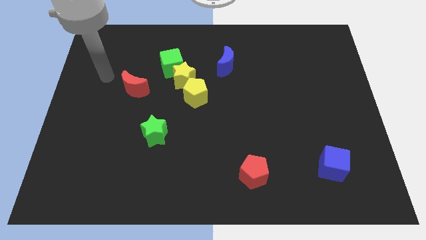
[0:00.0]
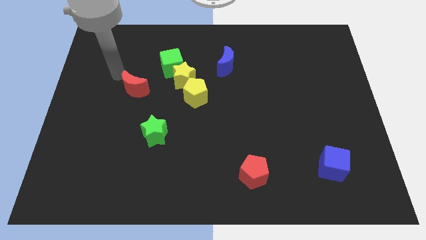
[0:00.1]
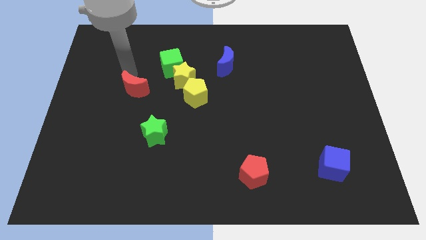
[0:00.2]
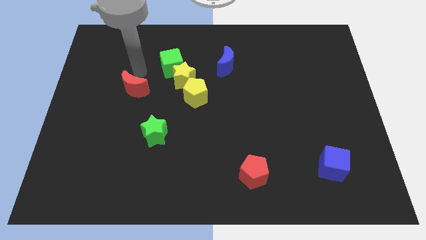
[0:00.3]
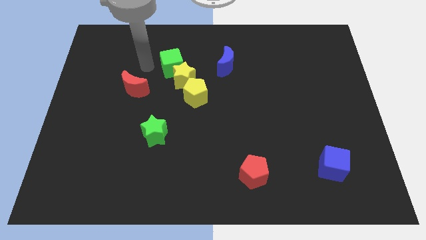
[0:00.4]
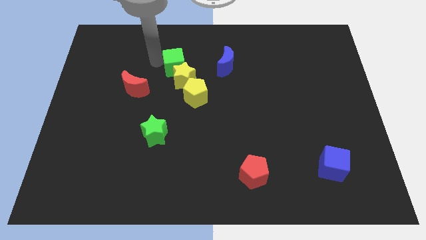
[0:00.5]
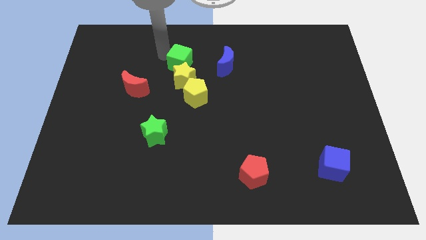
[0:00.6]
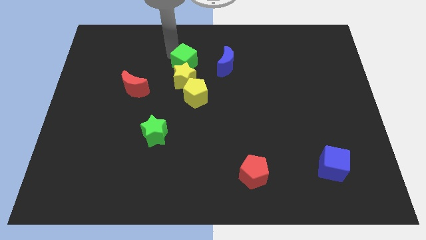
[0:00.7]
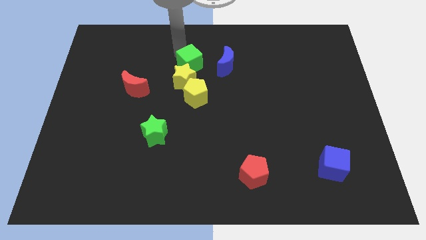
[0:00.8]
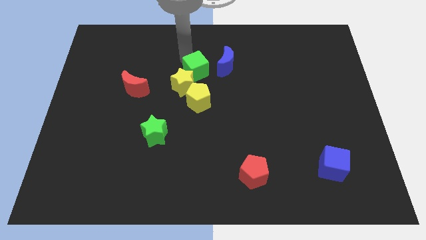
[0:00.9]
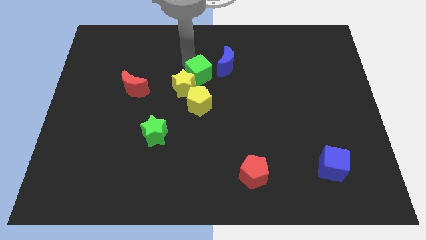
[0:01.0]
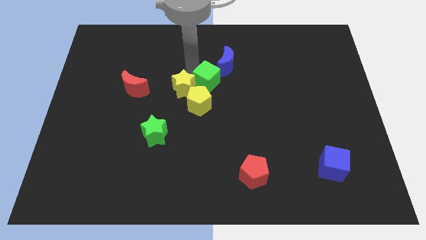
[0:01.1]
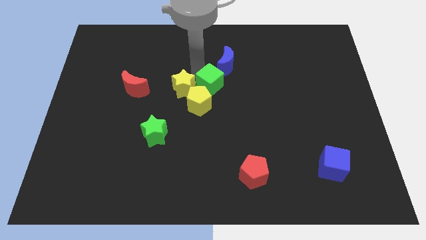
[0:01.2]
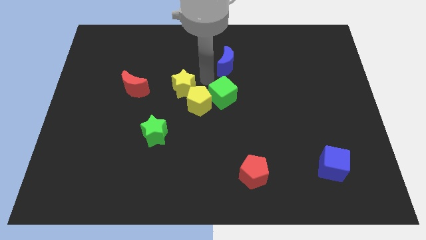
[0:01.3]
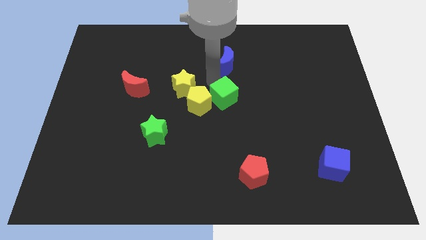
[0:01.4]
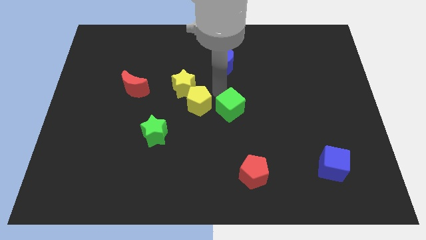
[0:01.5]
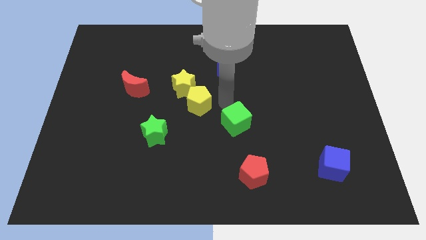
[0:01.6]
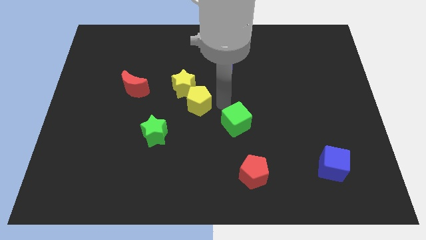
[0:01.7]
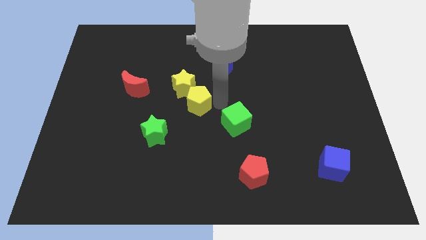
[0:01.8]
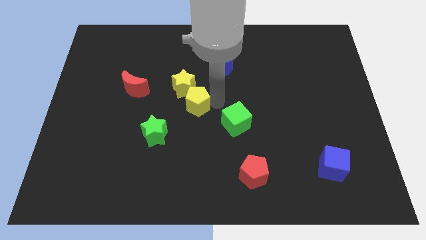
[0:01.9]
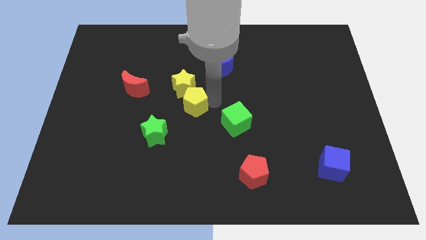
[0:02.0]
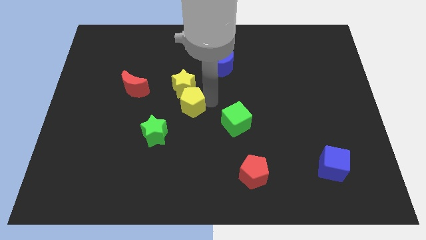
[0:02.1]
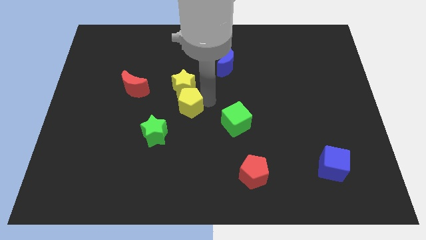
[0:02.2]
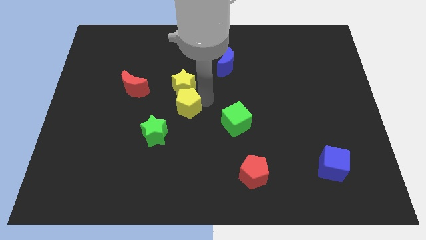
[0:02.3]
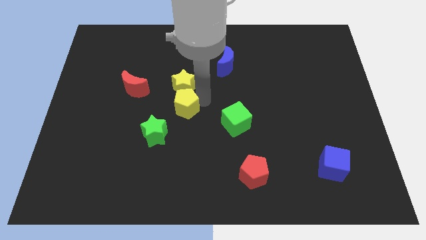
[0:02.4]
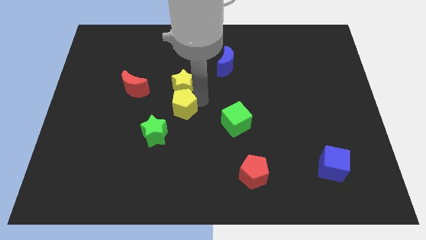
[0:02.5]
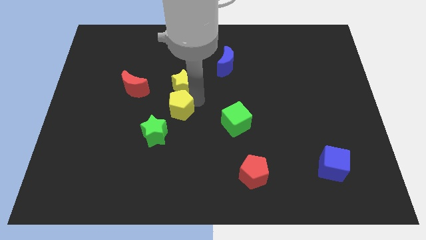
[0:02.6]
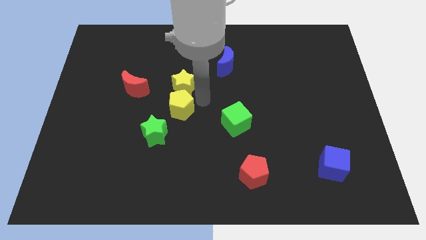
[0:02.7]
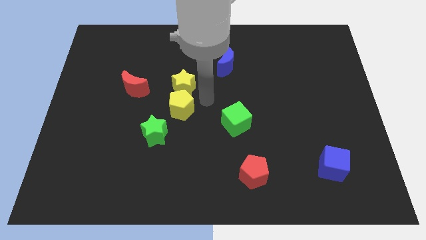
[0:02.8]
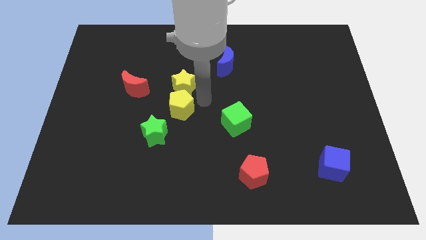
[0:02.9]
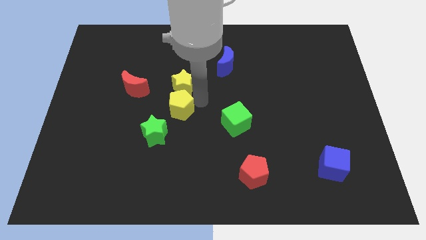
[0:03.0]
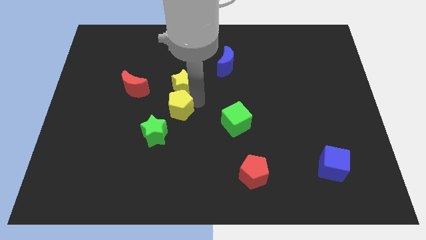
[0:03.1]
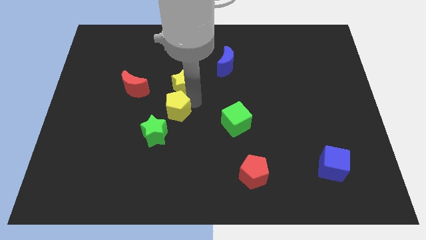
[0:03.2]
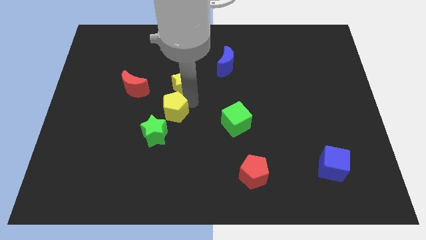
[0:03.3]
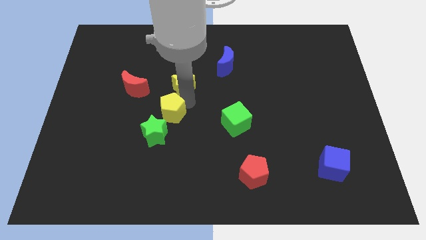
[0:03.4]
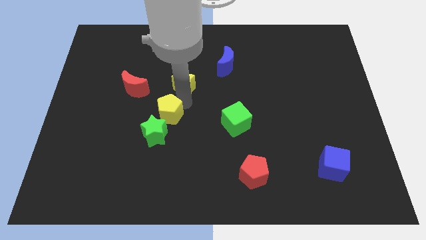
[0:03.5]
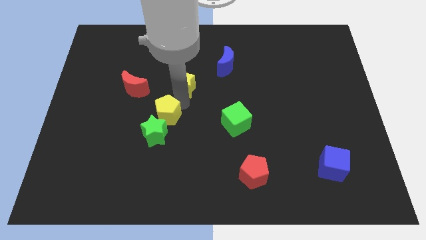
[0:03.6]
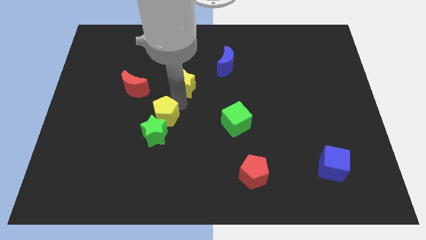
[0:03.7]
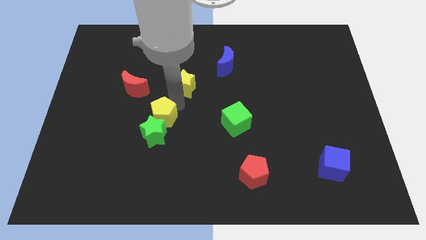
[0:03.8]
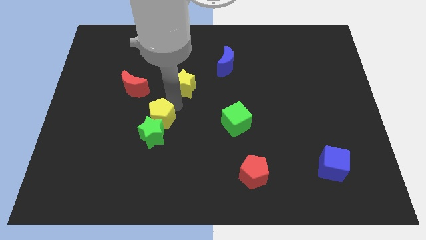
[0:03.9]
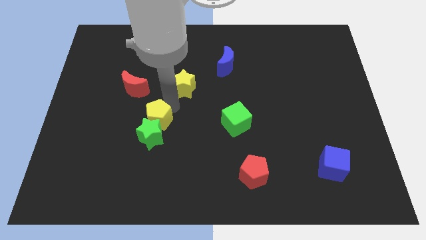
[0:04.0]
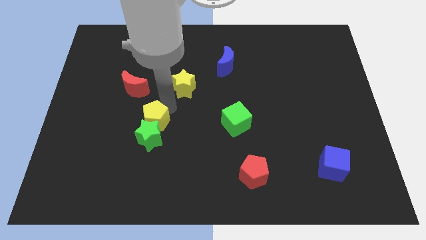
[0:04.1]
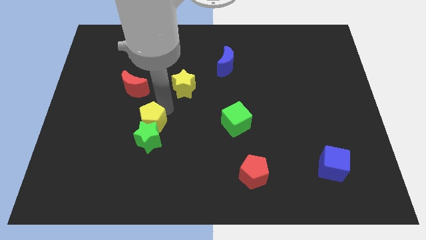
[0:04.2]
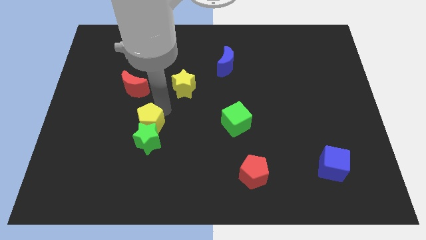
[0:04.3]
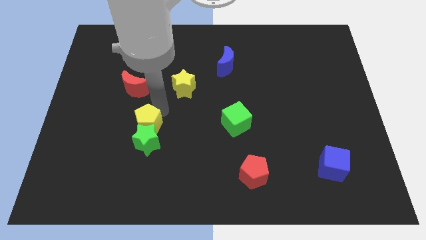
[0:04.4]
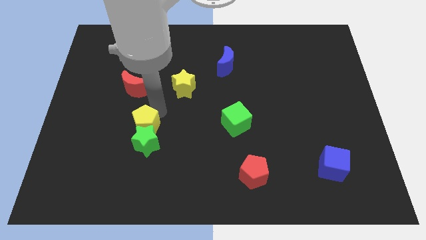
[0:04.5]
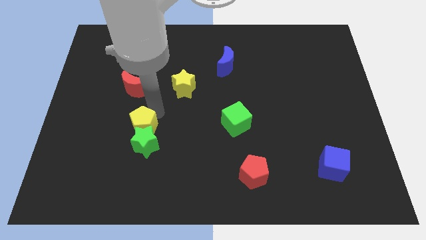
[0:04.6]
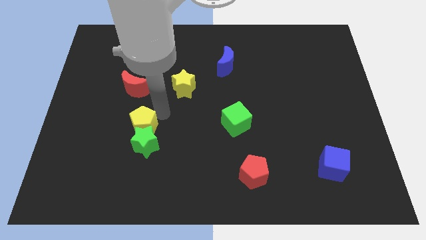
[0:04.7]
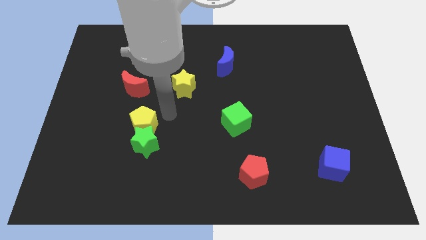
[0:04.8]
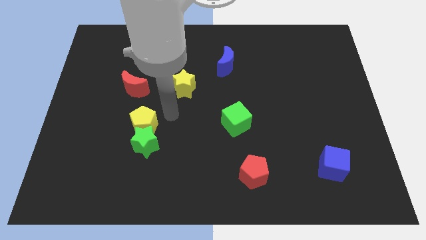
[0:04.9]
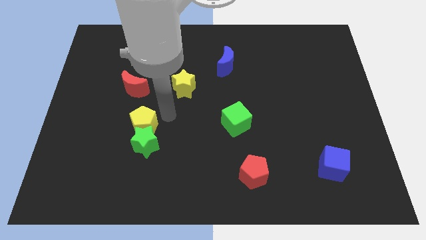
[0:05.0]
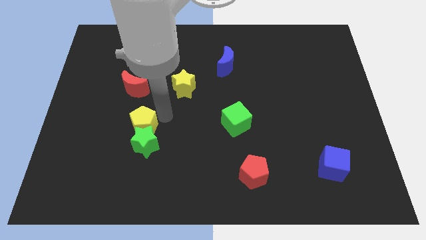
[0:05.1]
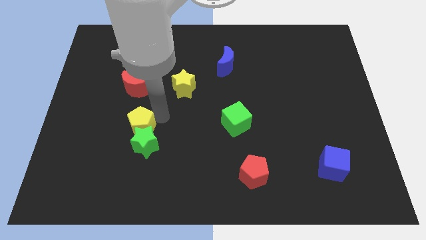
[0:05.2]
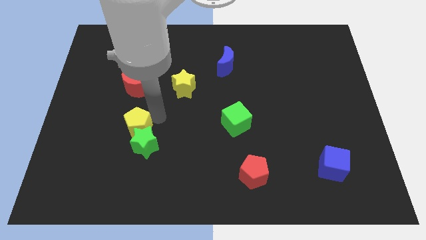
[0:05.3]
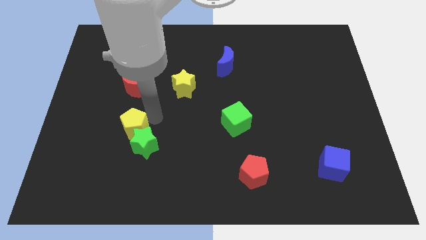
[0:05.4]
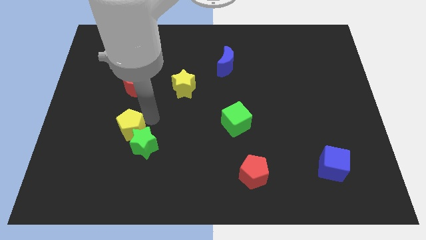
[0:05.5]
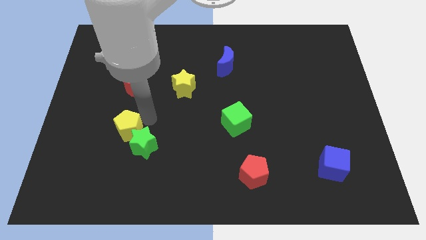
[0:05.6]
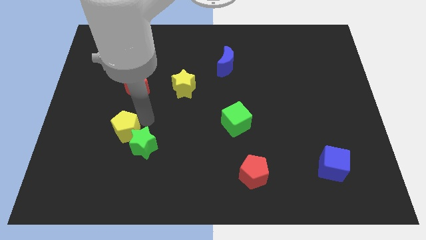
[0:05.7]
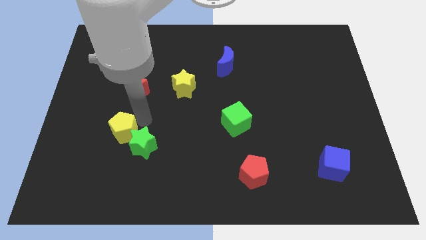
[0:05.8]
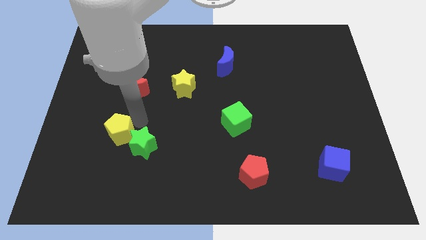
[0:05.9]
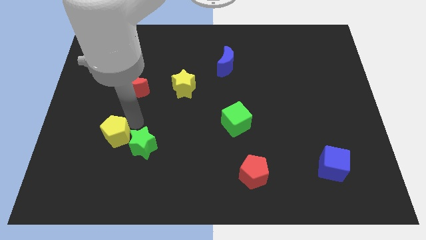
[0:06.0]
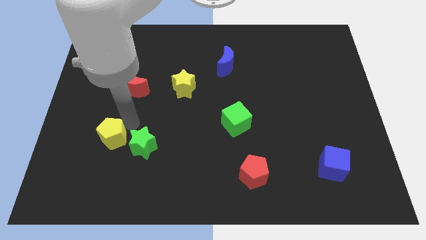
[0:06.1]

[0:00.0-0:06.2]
move the yellow pentagon down and then left

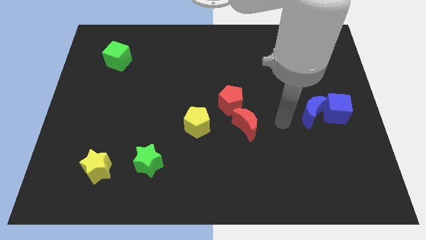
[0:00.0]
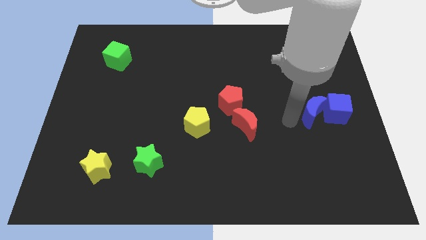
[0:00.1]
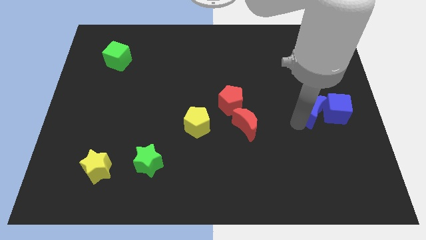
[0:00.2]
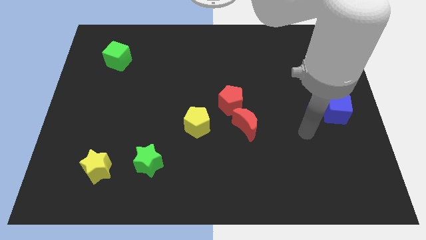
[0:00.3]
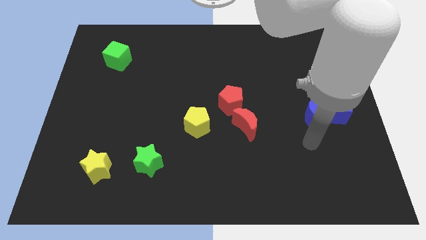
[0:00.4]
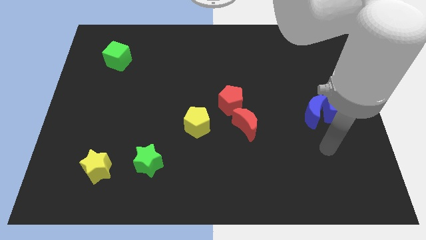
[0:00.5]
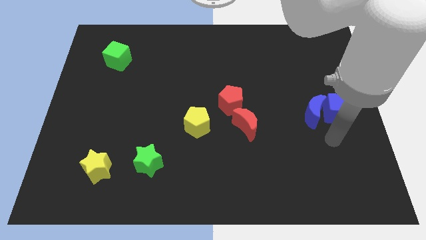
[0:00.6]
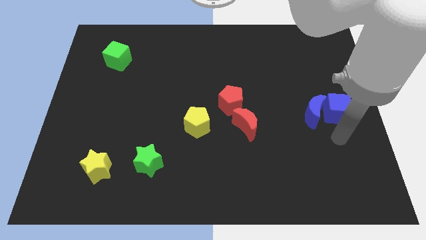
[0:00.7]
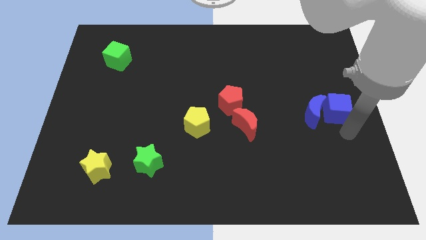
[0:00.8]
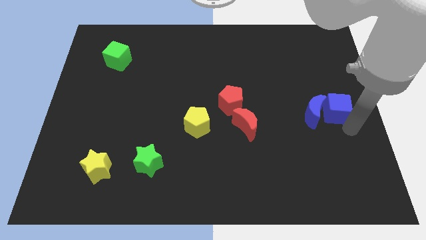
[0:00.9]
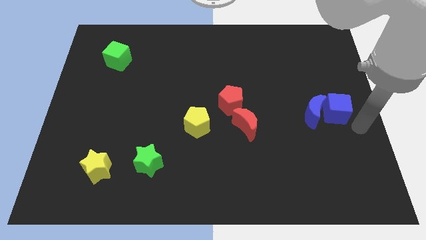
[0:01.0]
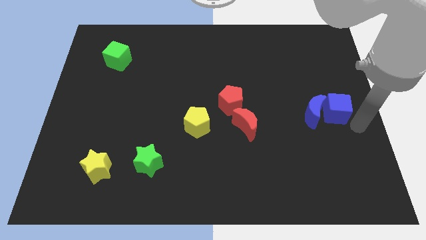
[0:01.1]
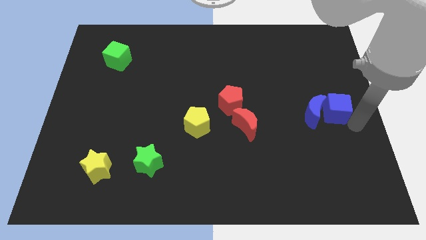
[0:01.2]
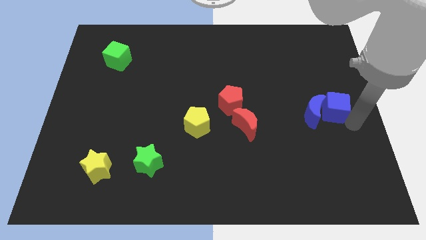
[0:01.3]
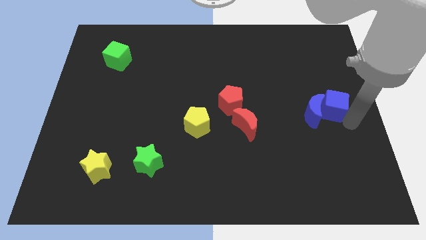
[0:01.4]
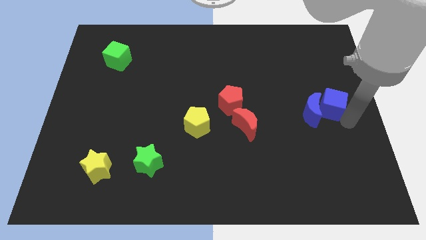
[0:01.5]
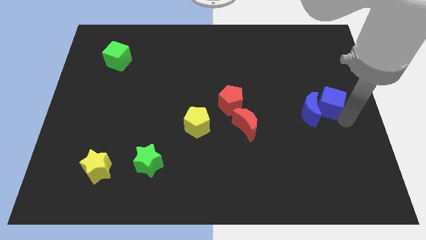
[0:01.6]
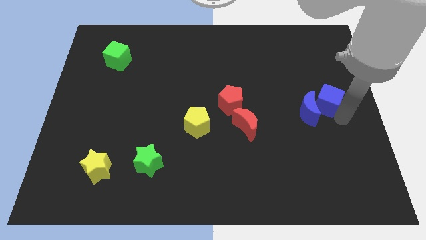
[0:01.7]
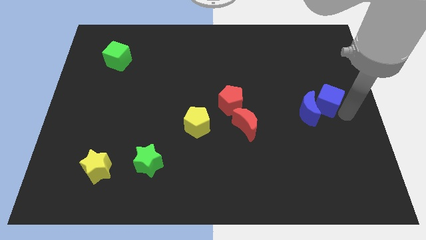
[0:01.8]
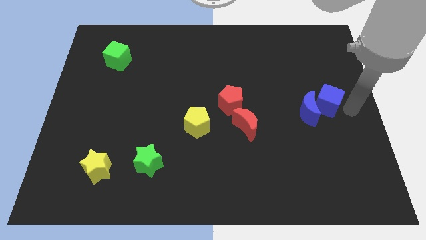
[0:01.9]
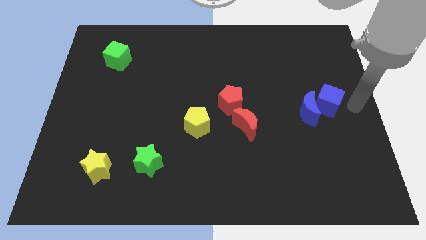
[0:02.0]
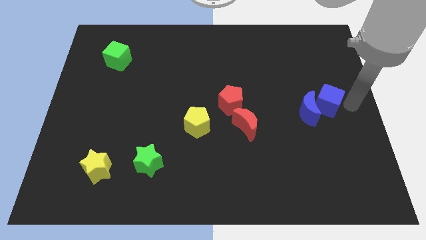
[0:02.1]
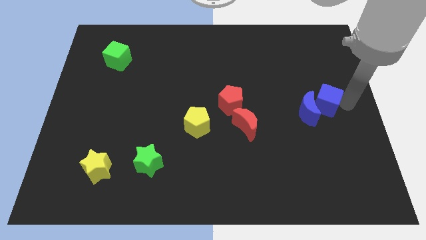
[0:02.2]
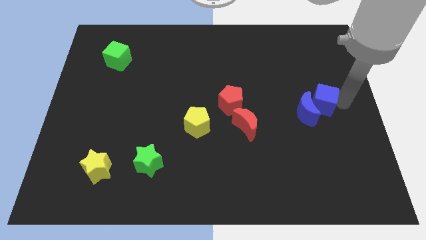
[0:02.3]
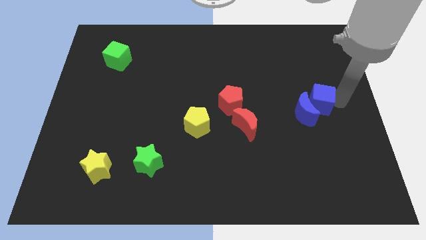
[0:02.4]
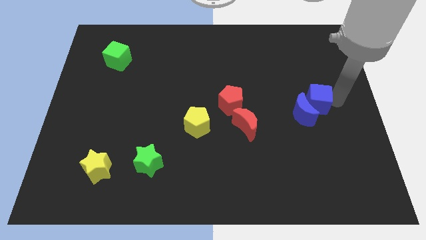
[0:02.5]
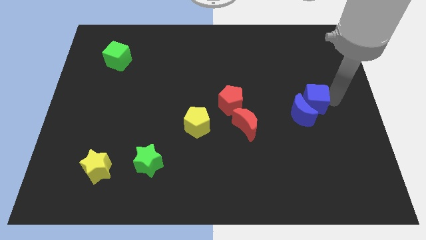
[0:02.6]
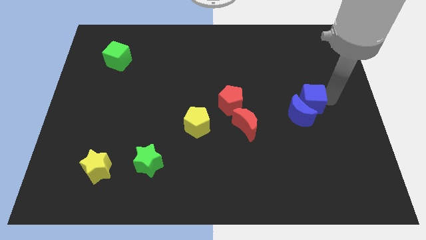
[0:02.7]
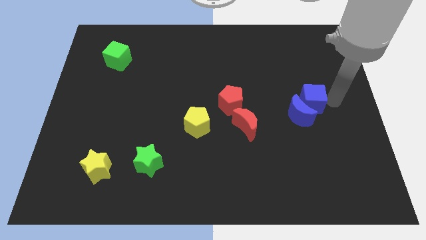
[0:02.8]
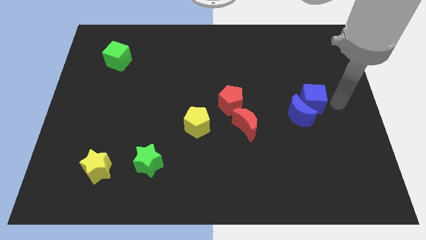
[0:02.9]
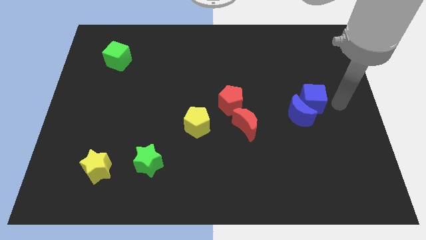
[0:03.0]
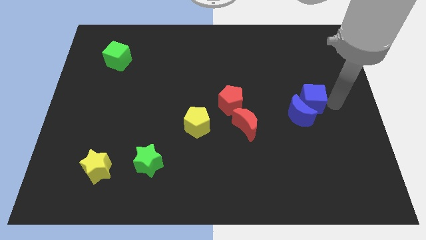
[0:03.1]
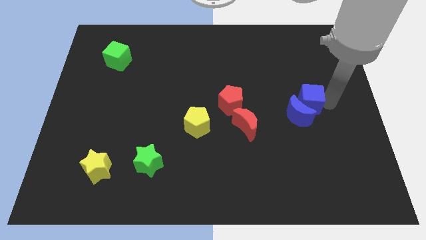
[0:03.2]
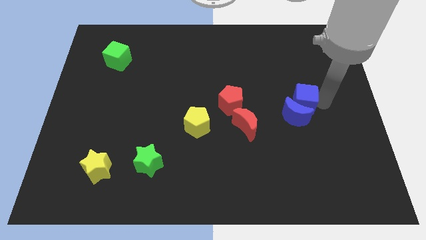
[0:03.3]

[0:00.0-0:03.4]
push the blue cube a bit left
